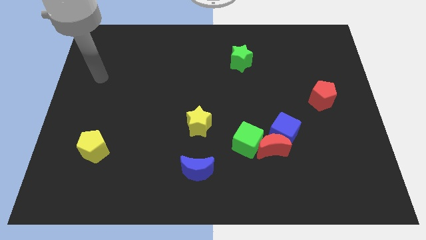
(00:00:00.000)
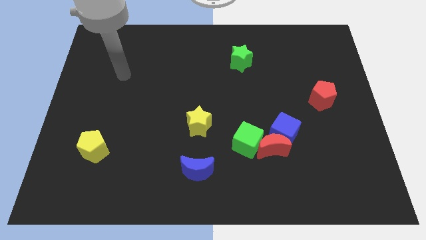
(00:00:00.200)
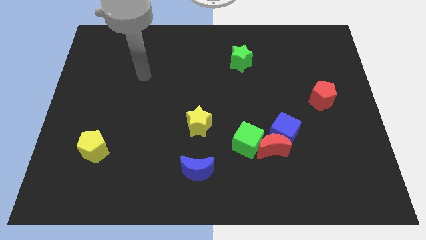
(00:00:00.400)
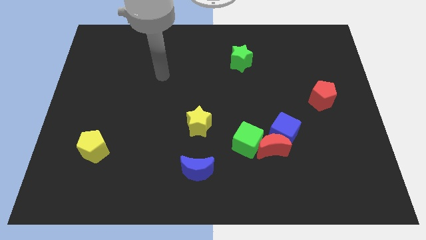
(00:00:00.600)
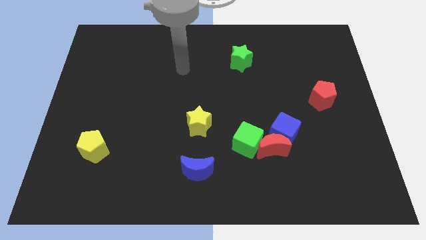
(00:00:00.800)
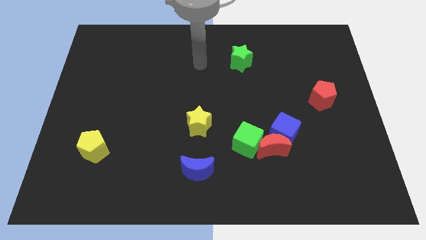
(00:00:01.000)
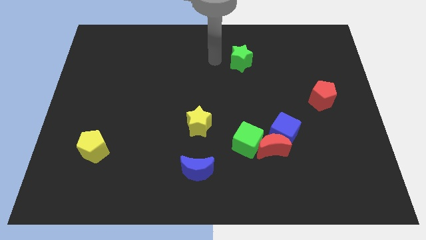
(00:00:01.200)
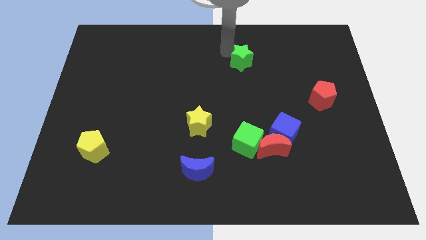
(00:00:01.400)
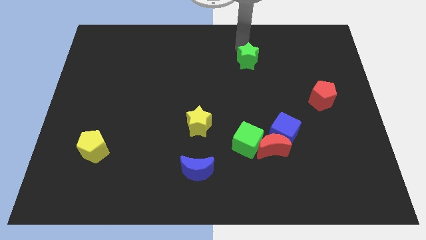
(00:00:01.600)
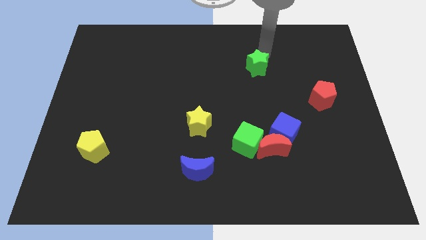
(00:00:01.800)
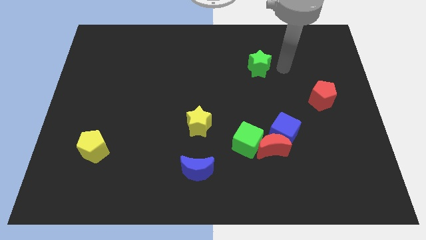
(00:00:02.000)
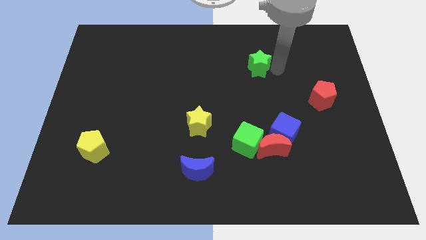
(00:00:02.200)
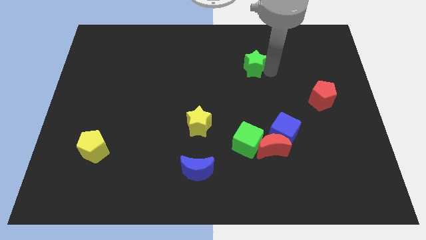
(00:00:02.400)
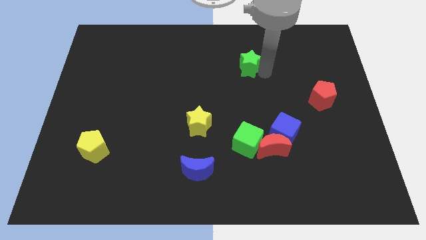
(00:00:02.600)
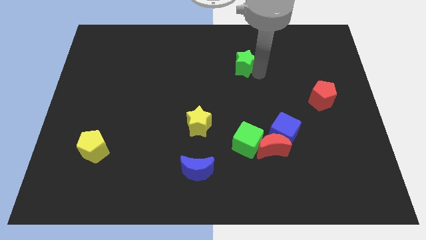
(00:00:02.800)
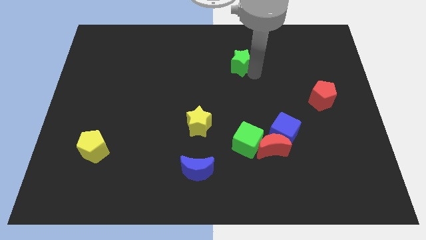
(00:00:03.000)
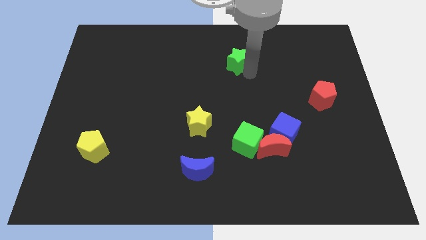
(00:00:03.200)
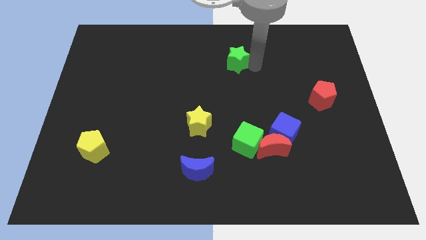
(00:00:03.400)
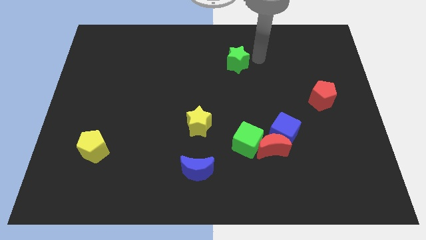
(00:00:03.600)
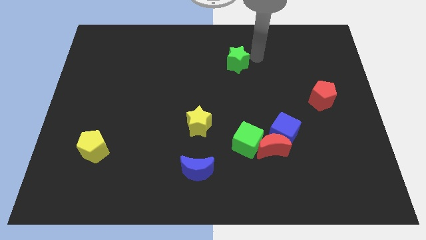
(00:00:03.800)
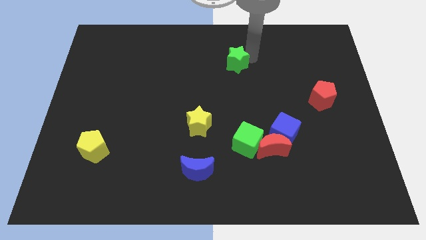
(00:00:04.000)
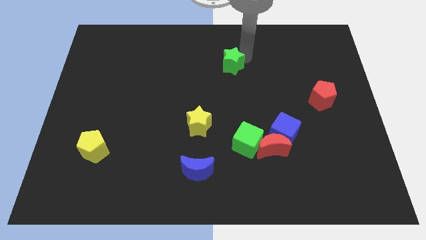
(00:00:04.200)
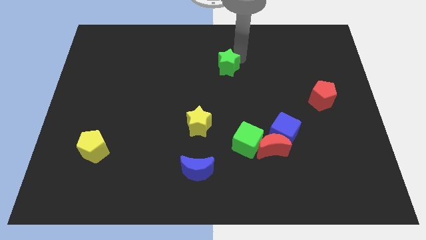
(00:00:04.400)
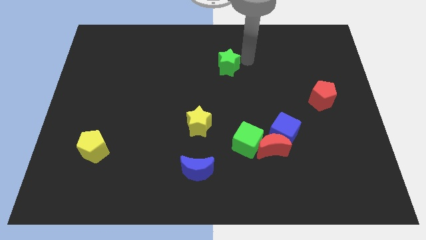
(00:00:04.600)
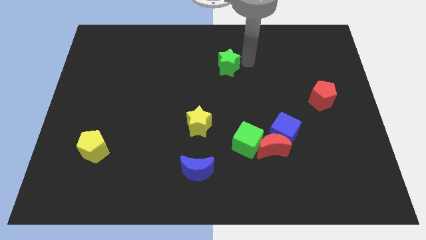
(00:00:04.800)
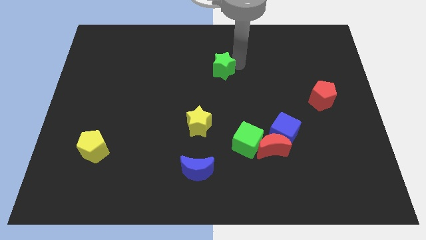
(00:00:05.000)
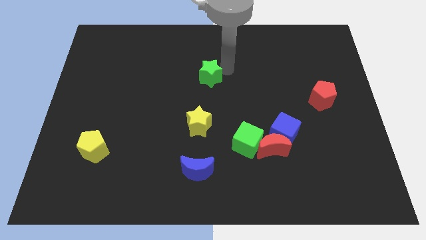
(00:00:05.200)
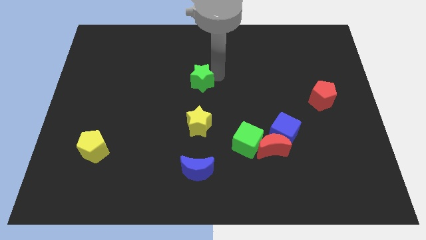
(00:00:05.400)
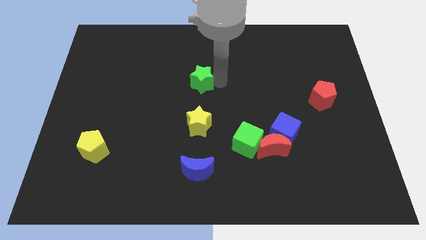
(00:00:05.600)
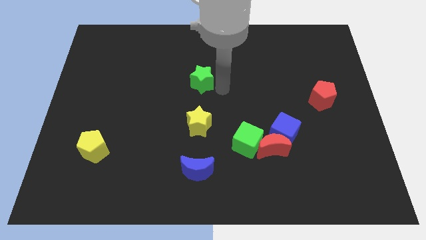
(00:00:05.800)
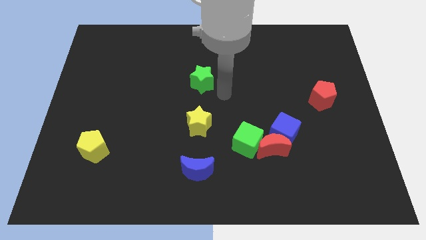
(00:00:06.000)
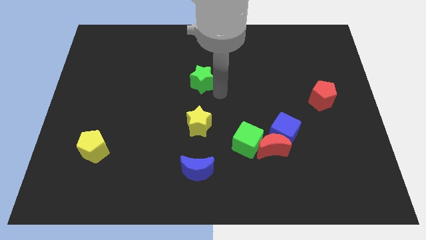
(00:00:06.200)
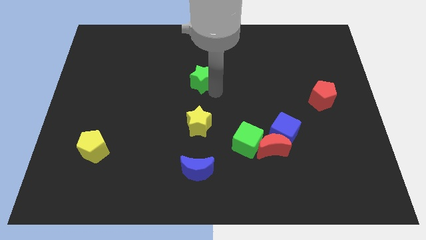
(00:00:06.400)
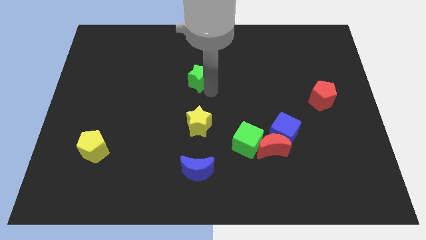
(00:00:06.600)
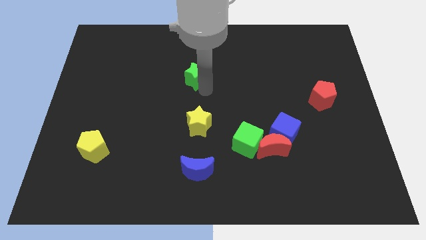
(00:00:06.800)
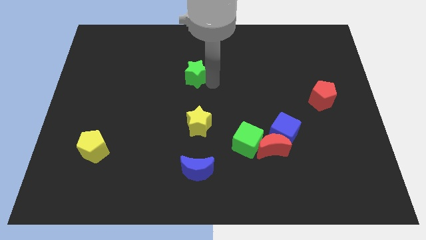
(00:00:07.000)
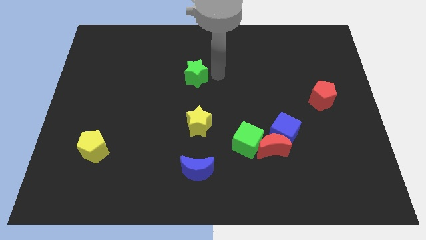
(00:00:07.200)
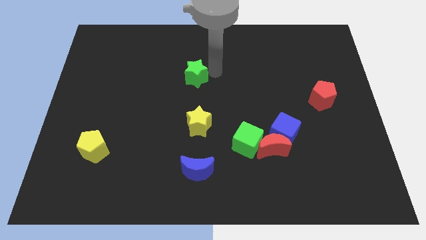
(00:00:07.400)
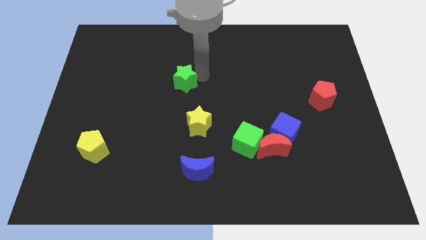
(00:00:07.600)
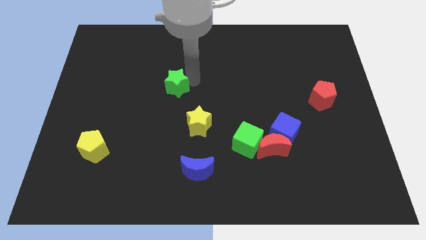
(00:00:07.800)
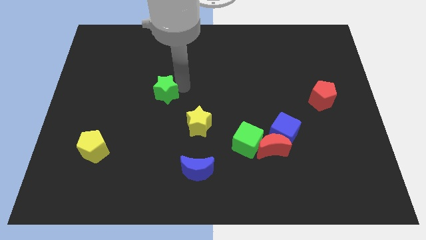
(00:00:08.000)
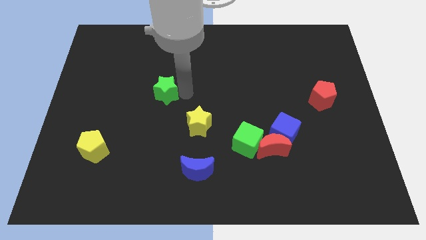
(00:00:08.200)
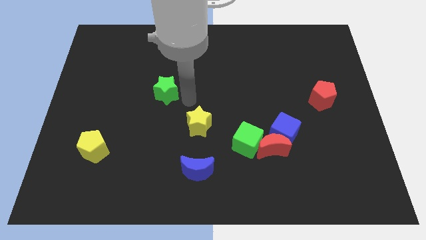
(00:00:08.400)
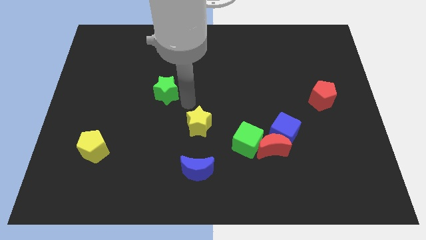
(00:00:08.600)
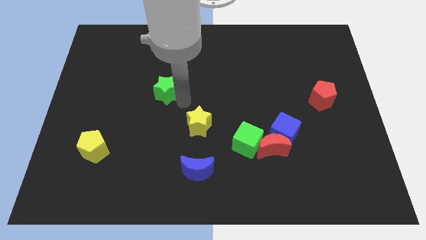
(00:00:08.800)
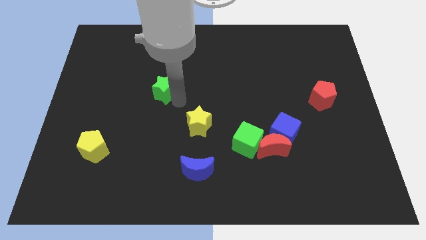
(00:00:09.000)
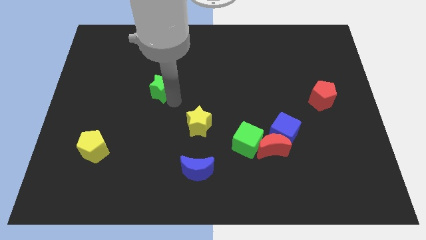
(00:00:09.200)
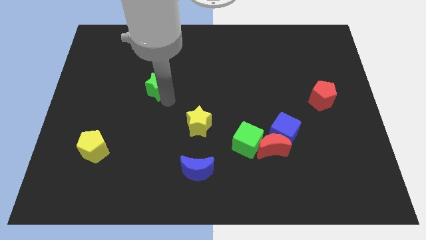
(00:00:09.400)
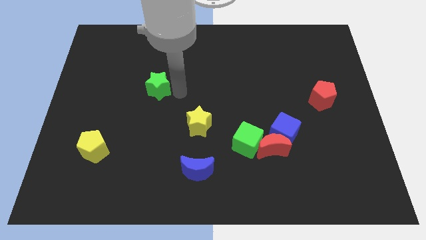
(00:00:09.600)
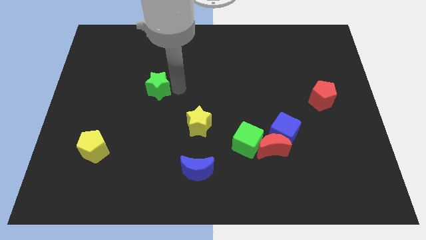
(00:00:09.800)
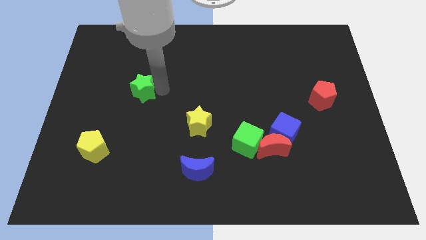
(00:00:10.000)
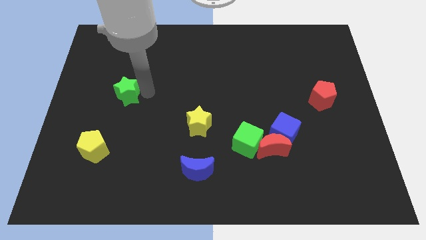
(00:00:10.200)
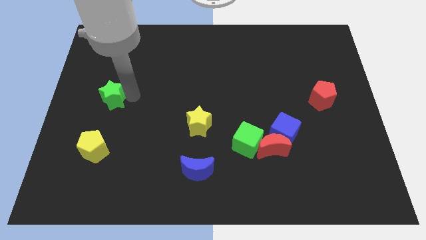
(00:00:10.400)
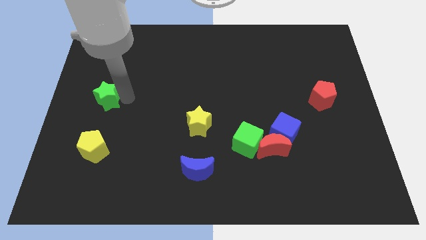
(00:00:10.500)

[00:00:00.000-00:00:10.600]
push the green star to the center left

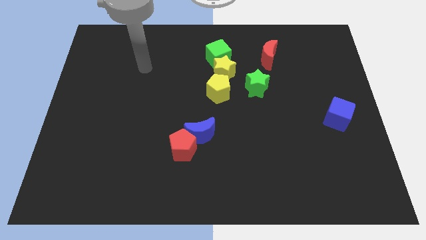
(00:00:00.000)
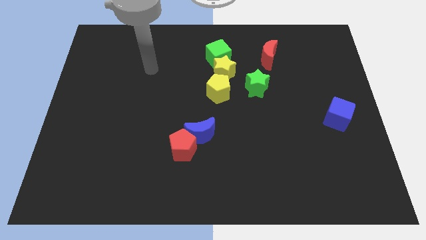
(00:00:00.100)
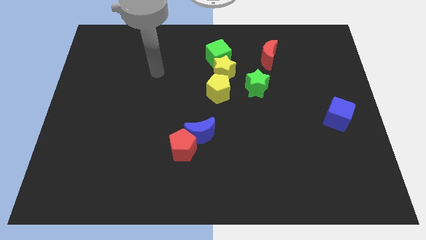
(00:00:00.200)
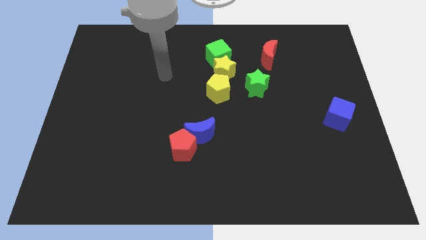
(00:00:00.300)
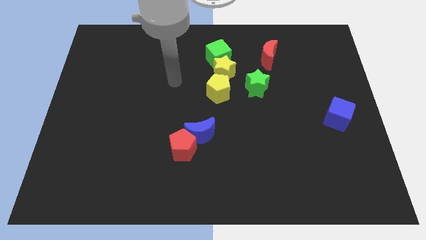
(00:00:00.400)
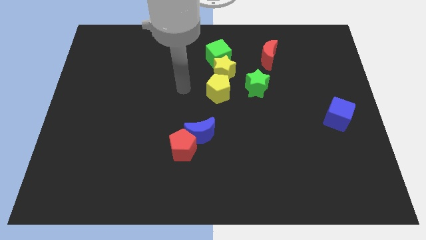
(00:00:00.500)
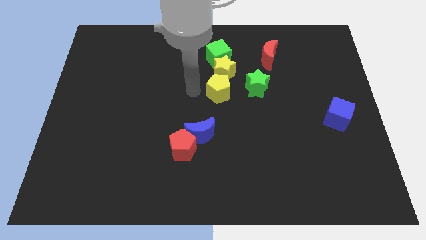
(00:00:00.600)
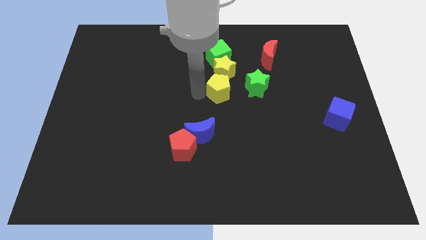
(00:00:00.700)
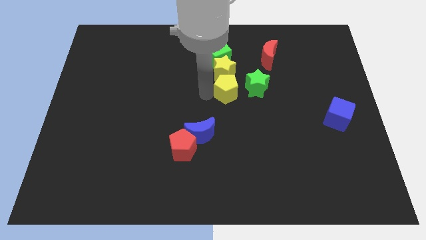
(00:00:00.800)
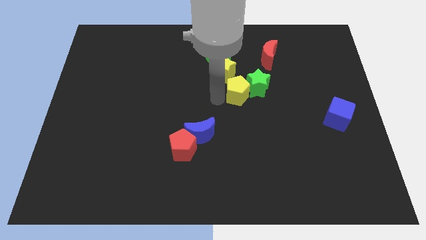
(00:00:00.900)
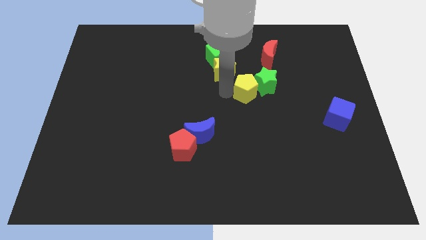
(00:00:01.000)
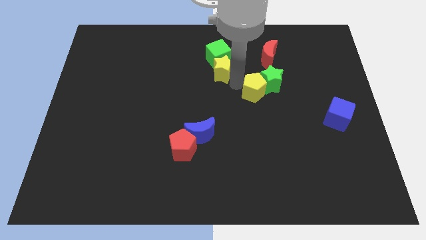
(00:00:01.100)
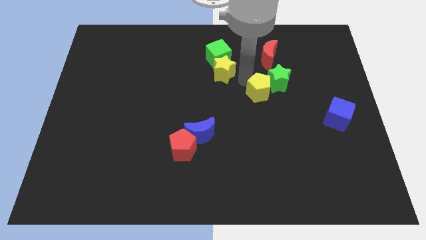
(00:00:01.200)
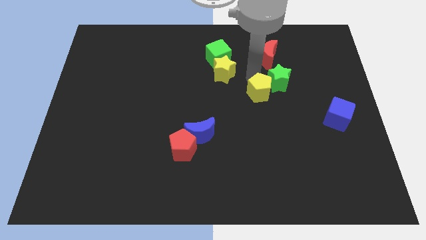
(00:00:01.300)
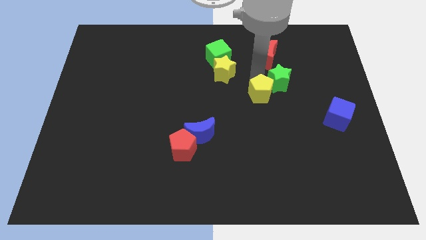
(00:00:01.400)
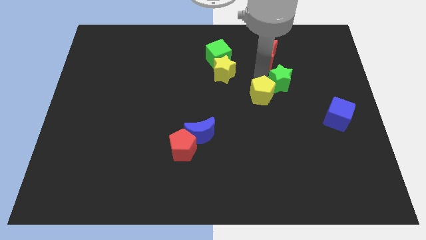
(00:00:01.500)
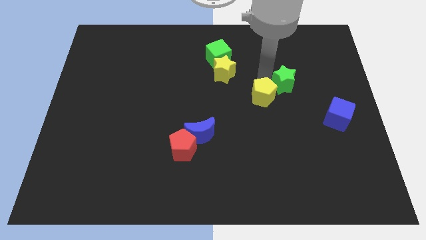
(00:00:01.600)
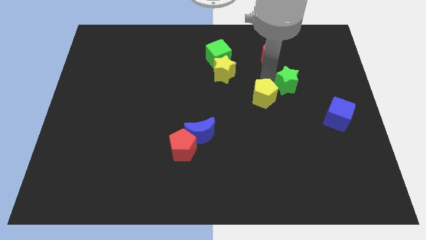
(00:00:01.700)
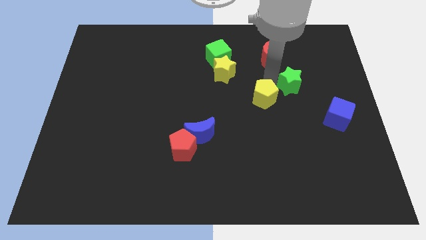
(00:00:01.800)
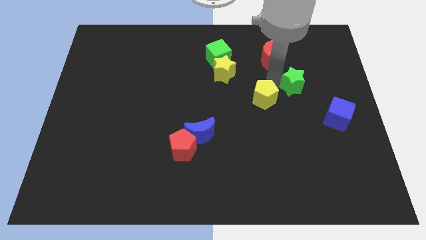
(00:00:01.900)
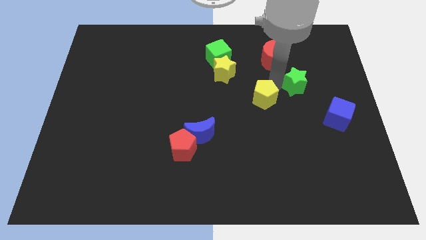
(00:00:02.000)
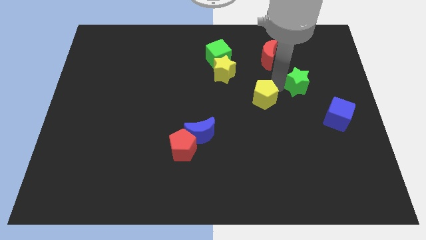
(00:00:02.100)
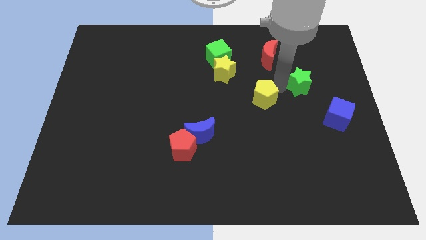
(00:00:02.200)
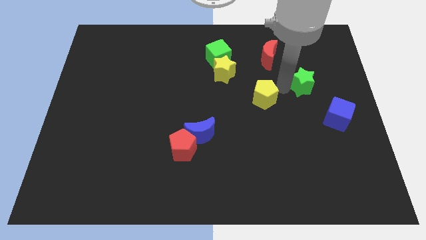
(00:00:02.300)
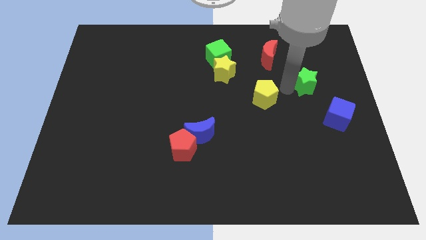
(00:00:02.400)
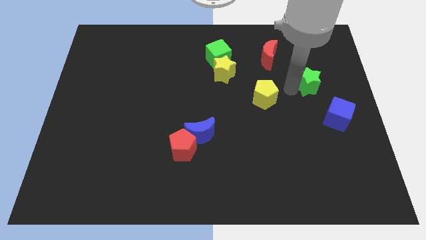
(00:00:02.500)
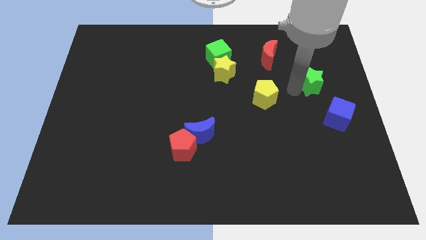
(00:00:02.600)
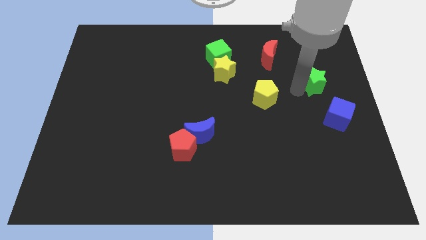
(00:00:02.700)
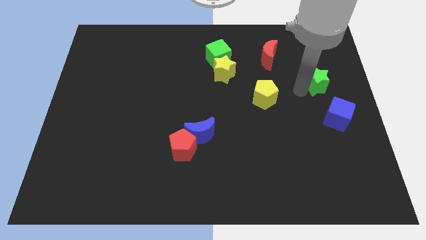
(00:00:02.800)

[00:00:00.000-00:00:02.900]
slide the green star to the right side of the board

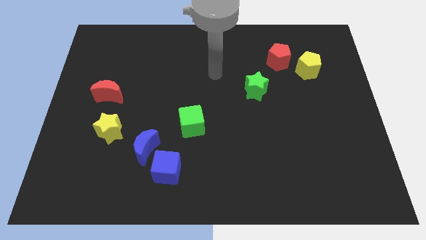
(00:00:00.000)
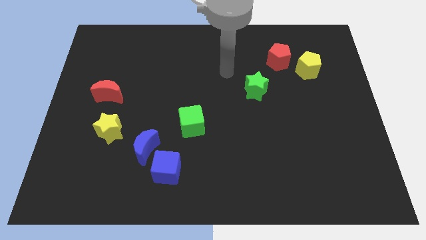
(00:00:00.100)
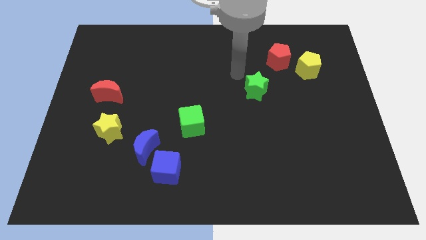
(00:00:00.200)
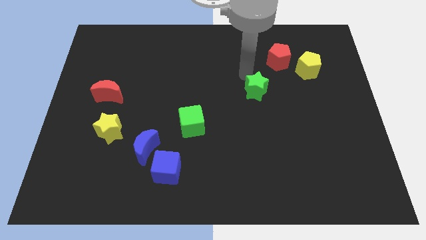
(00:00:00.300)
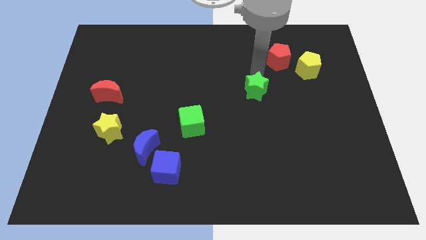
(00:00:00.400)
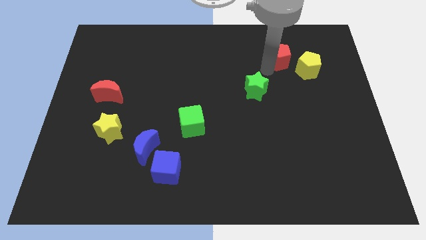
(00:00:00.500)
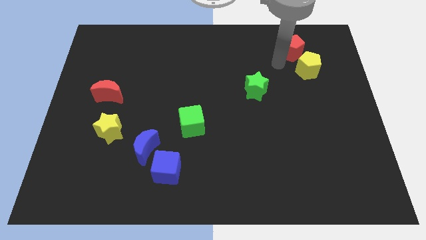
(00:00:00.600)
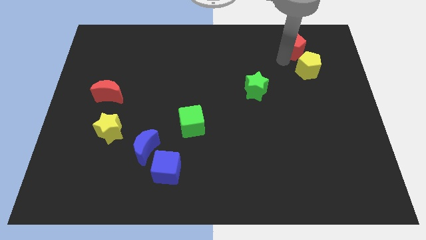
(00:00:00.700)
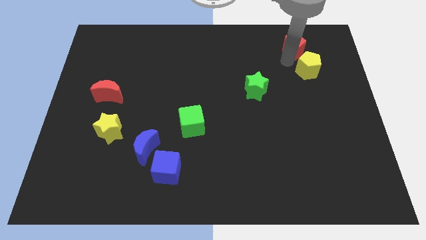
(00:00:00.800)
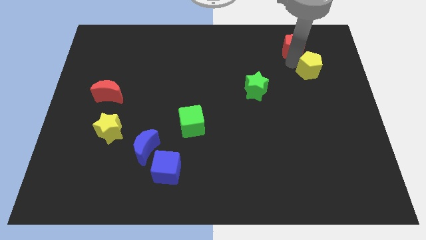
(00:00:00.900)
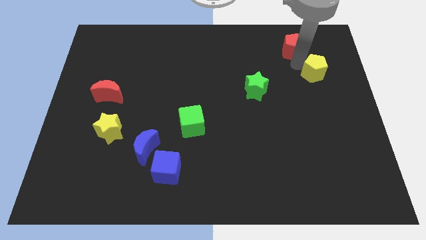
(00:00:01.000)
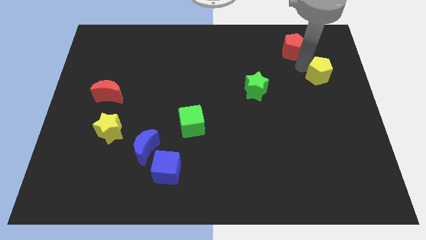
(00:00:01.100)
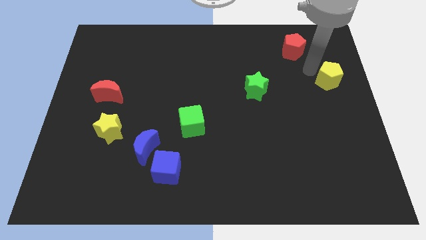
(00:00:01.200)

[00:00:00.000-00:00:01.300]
put the yellow pentagon to the right side
